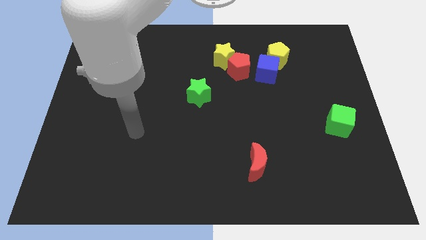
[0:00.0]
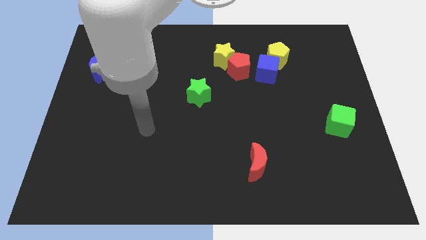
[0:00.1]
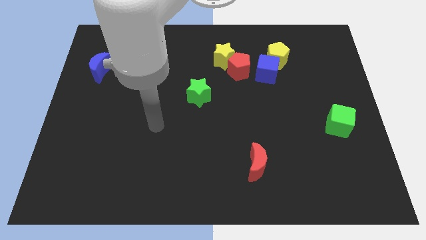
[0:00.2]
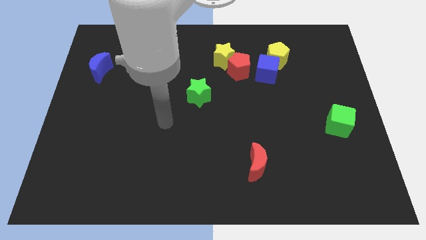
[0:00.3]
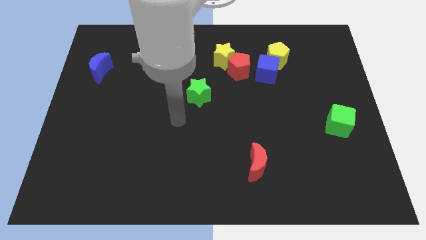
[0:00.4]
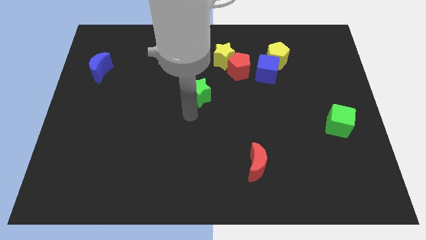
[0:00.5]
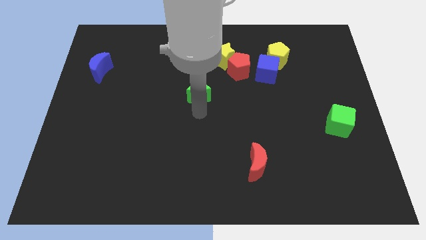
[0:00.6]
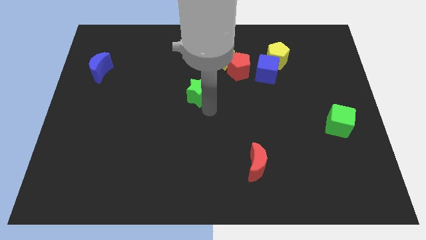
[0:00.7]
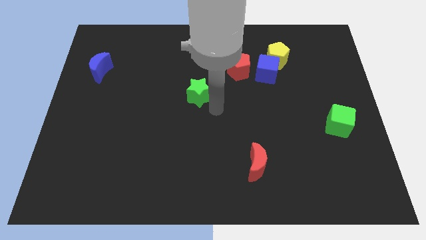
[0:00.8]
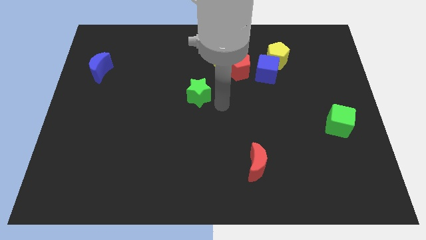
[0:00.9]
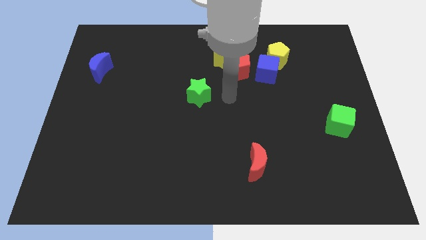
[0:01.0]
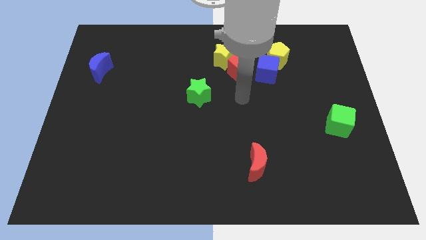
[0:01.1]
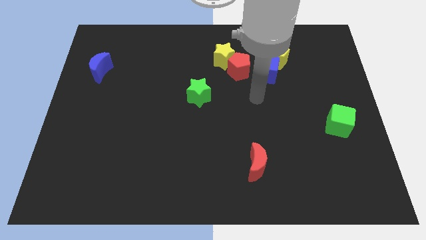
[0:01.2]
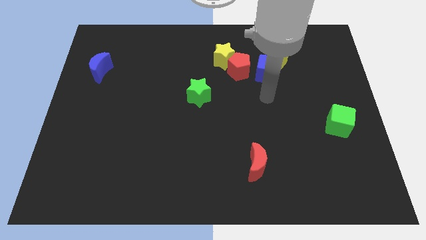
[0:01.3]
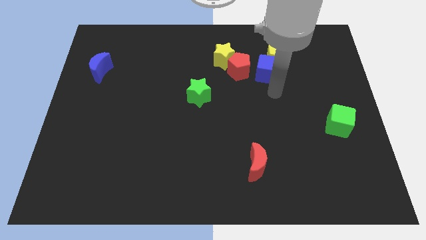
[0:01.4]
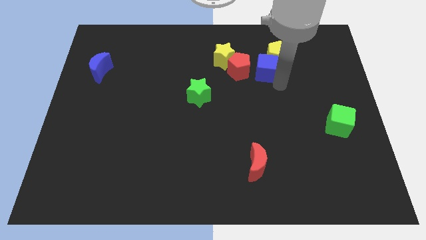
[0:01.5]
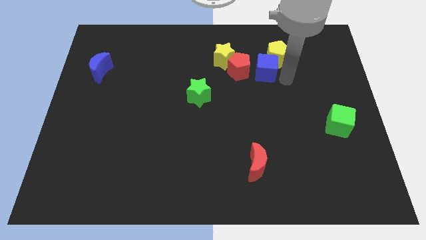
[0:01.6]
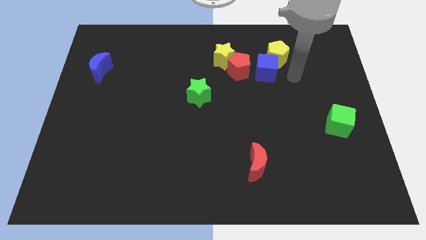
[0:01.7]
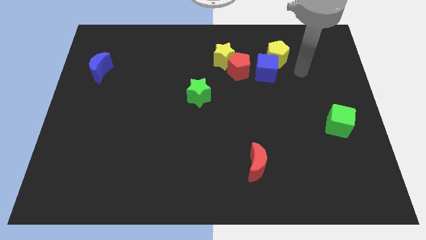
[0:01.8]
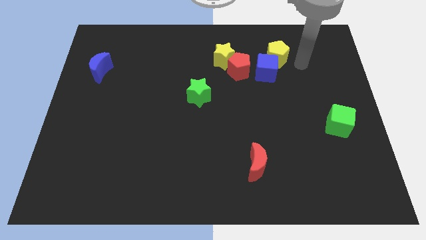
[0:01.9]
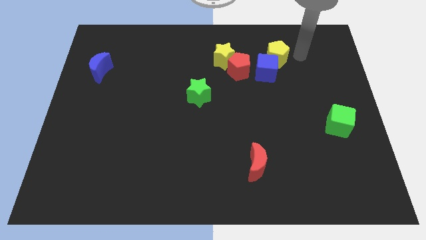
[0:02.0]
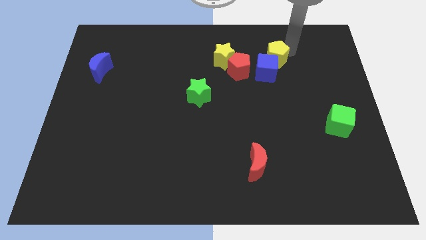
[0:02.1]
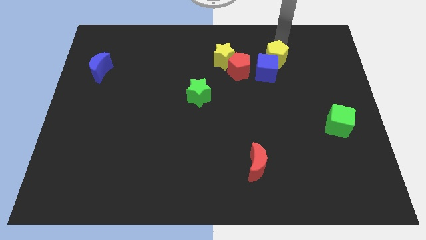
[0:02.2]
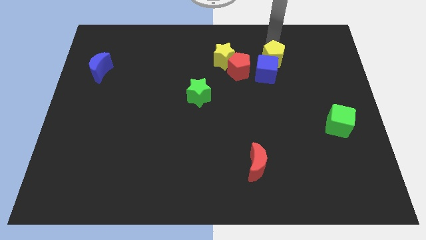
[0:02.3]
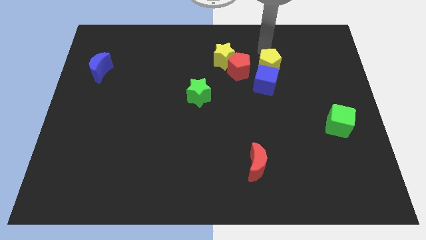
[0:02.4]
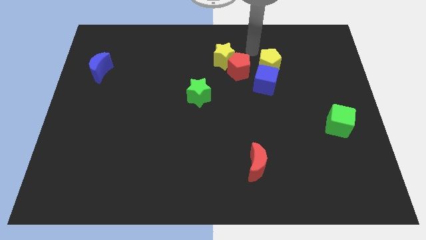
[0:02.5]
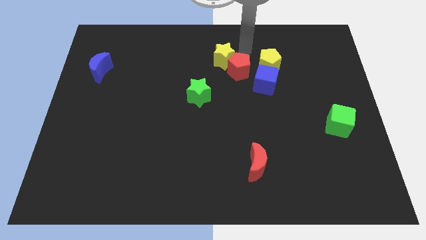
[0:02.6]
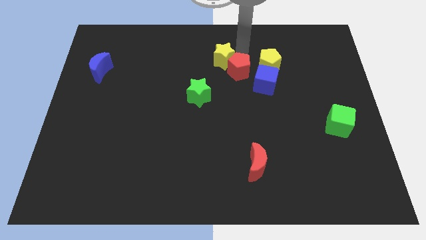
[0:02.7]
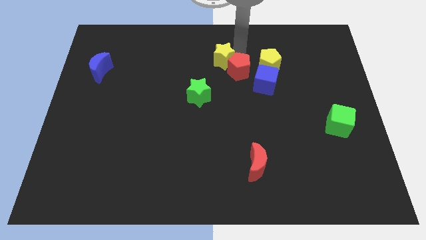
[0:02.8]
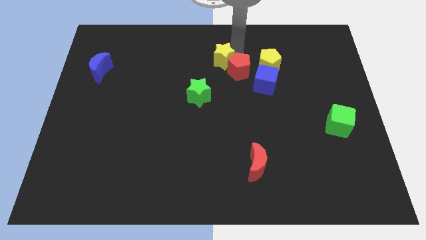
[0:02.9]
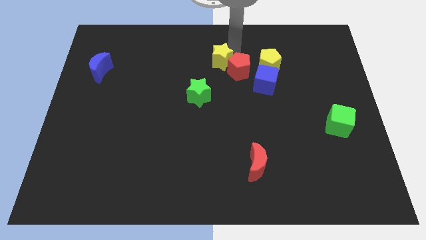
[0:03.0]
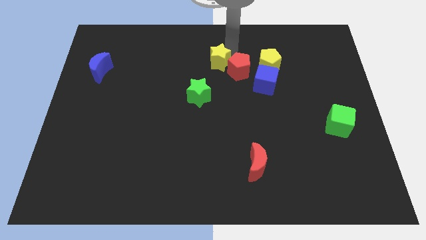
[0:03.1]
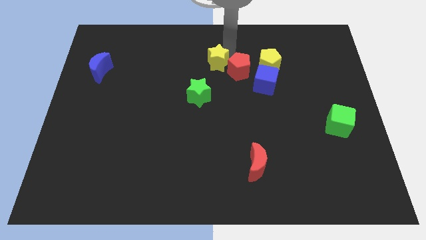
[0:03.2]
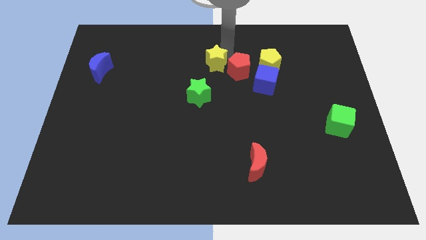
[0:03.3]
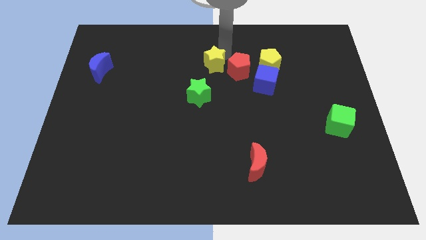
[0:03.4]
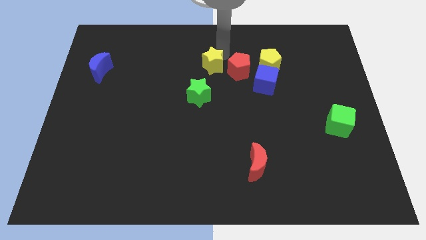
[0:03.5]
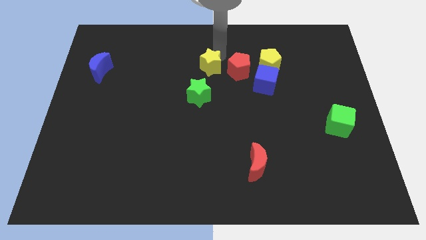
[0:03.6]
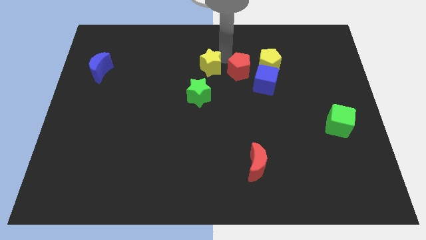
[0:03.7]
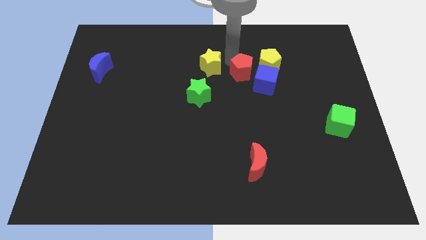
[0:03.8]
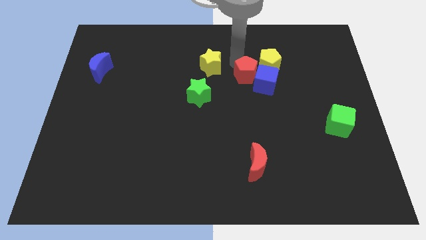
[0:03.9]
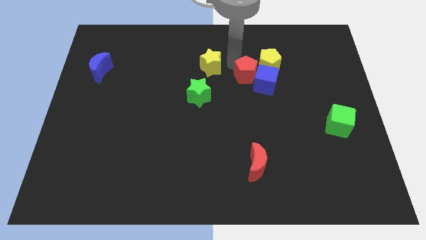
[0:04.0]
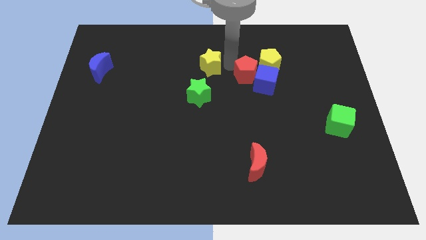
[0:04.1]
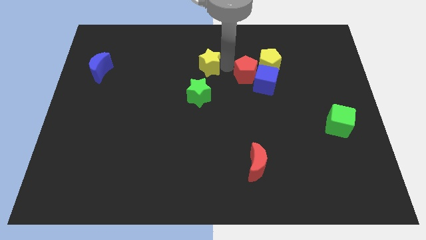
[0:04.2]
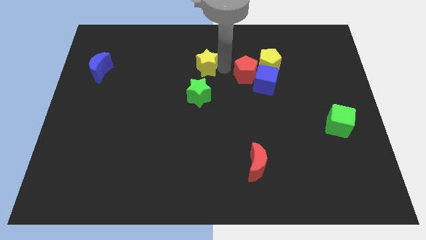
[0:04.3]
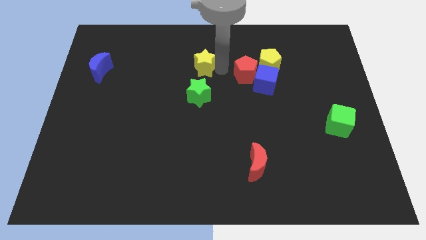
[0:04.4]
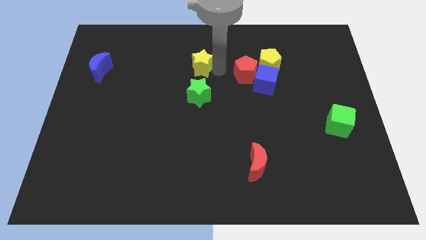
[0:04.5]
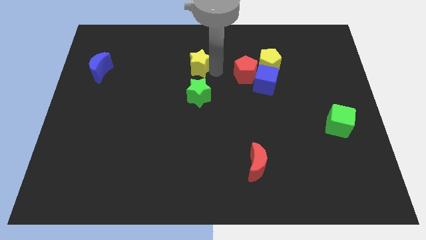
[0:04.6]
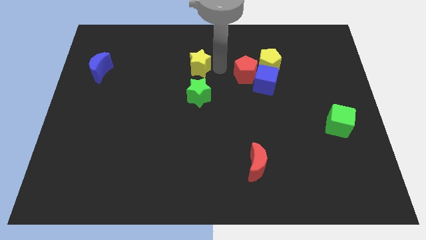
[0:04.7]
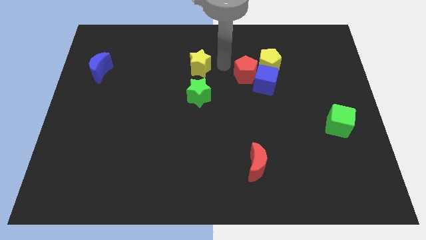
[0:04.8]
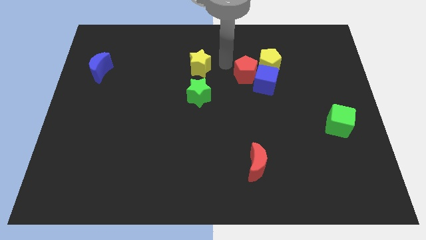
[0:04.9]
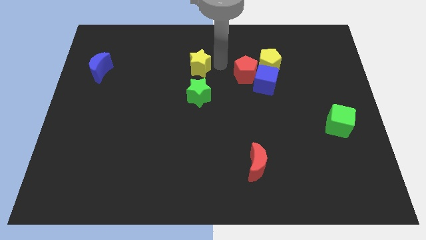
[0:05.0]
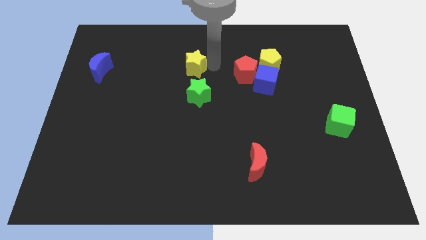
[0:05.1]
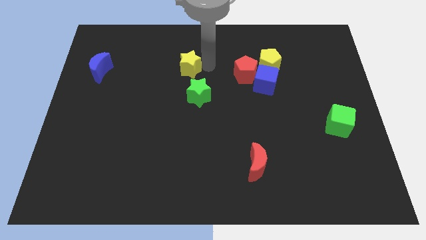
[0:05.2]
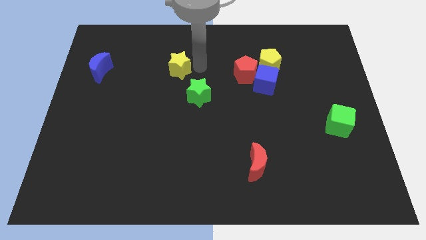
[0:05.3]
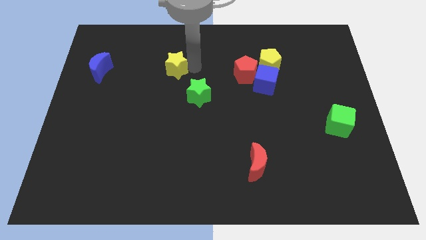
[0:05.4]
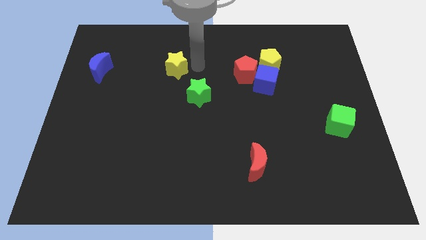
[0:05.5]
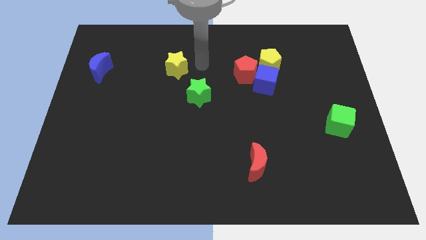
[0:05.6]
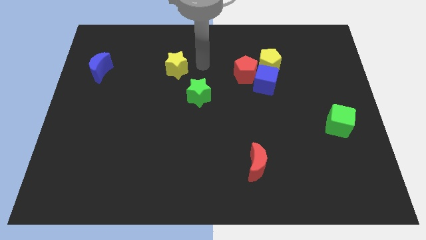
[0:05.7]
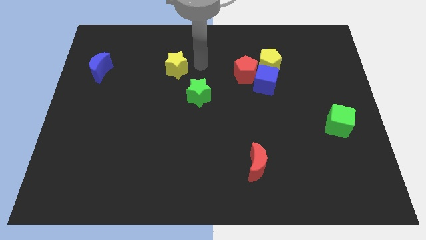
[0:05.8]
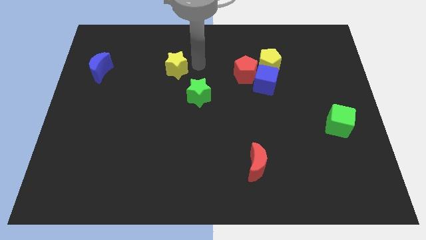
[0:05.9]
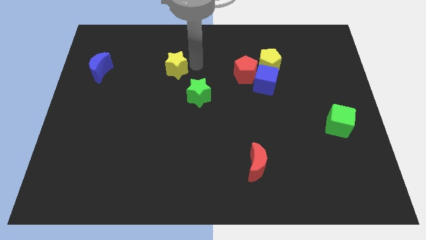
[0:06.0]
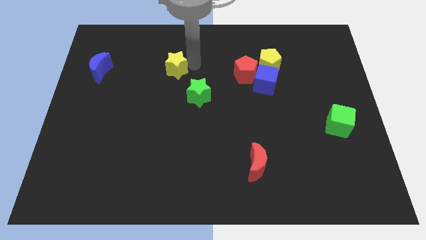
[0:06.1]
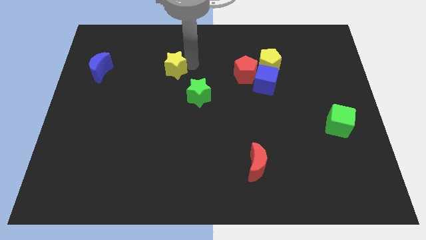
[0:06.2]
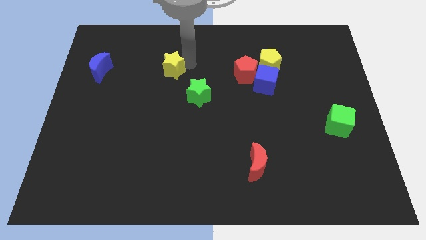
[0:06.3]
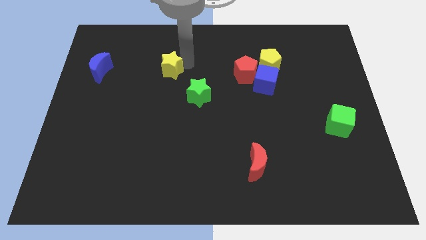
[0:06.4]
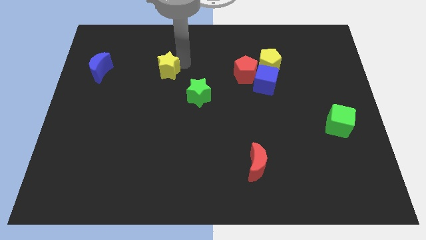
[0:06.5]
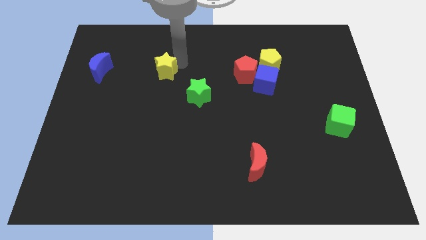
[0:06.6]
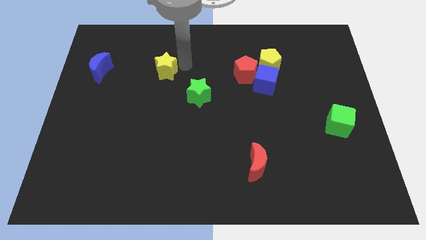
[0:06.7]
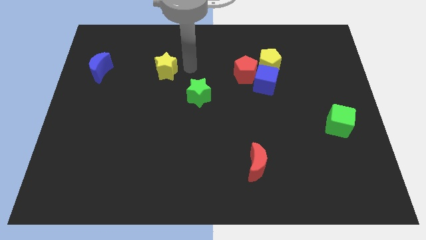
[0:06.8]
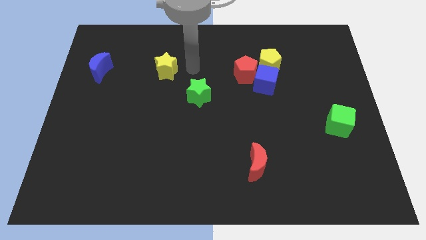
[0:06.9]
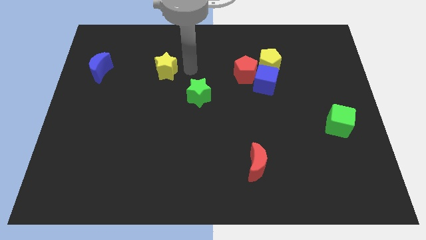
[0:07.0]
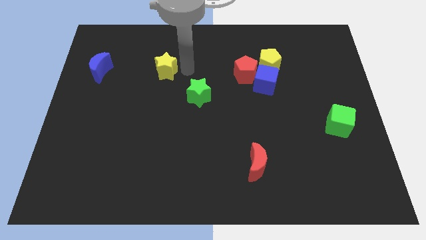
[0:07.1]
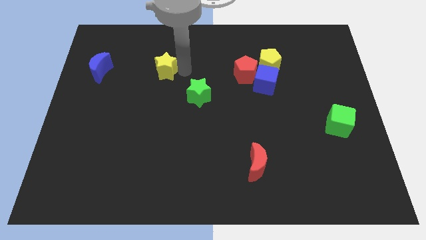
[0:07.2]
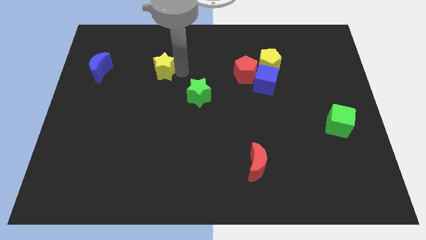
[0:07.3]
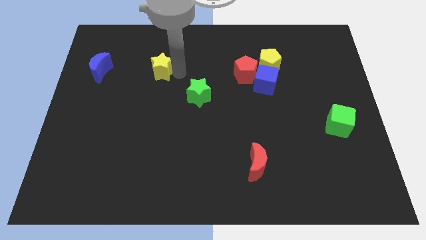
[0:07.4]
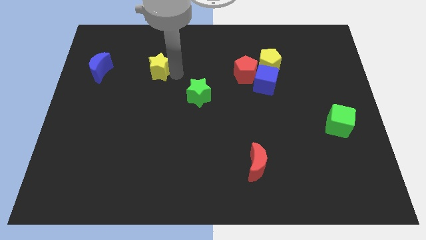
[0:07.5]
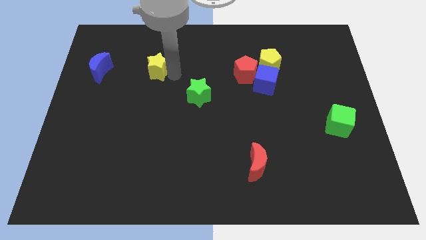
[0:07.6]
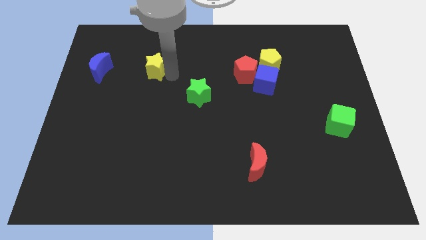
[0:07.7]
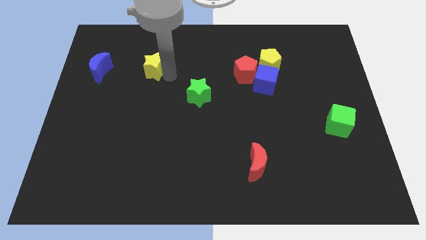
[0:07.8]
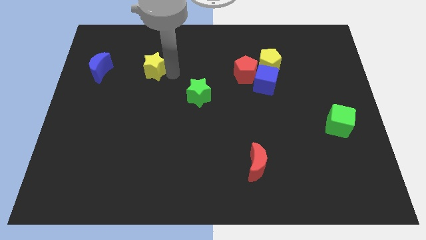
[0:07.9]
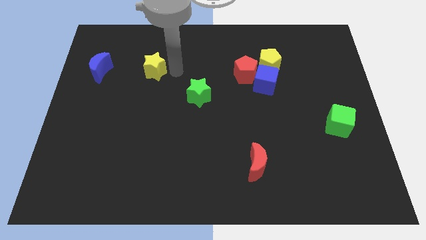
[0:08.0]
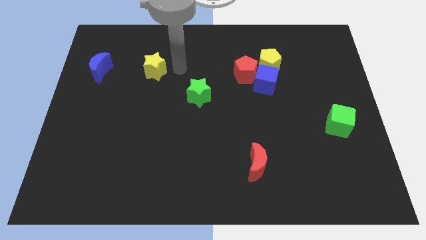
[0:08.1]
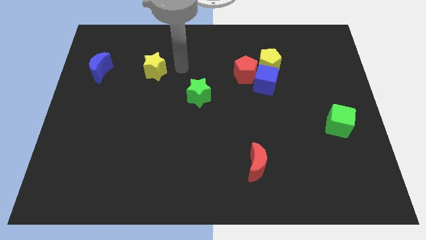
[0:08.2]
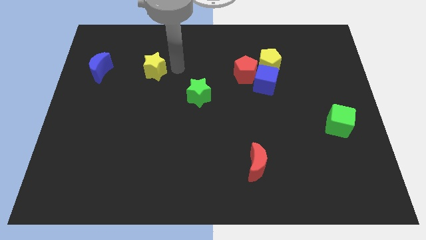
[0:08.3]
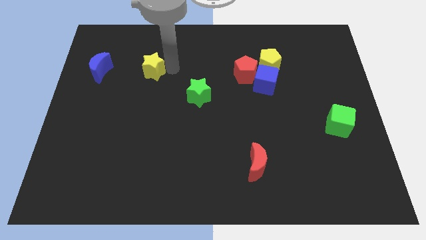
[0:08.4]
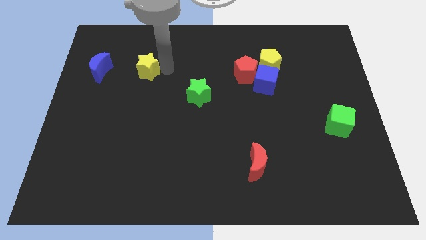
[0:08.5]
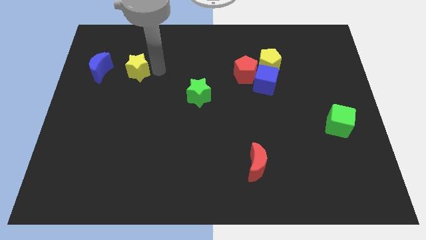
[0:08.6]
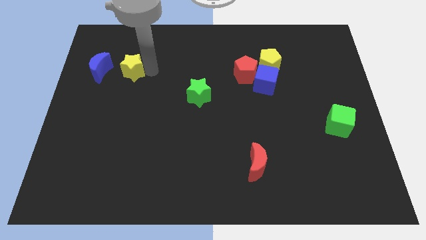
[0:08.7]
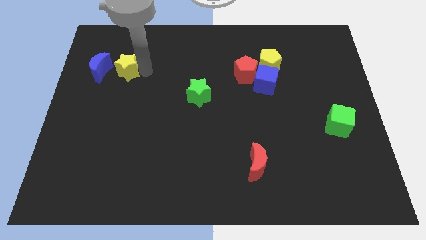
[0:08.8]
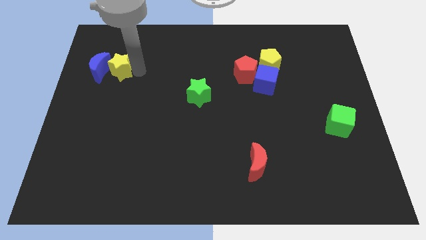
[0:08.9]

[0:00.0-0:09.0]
move the yellow star to the blue moon
